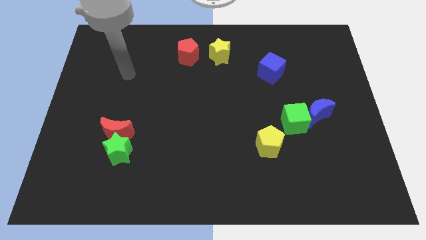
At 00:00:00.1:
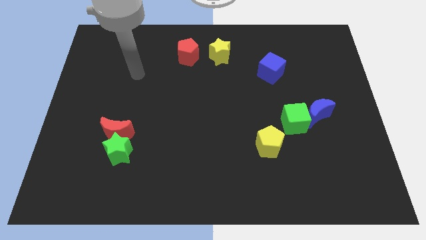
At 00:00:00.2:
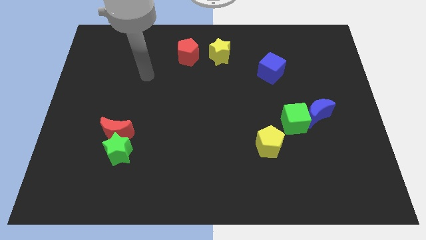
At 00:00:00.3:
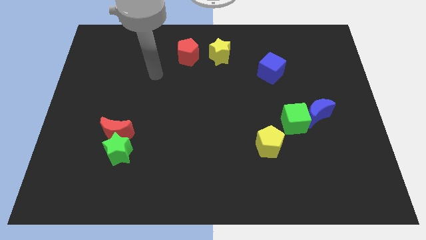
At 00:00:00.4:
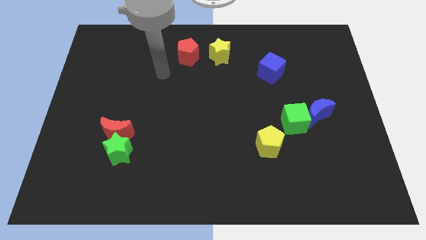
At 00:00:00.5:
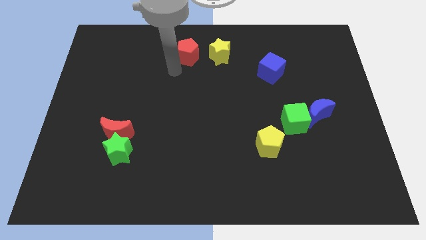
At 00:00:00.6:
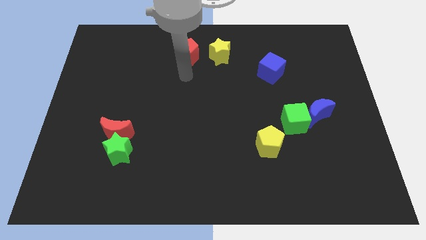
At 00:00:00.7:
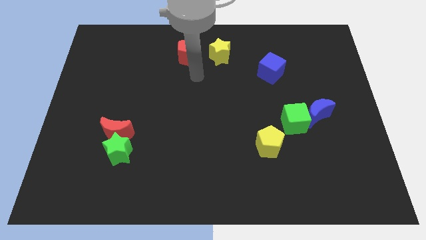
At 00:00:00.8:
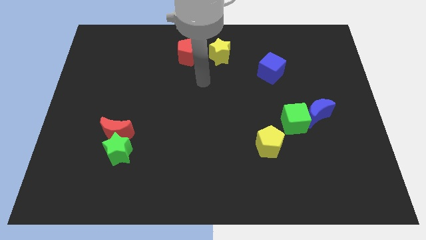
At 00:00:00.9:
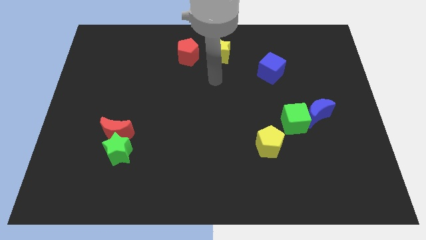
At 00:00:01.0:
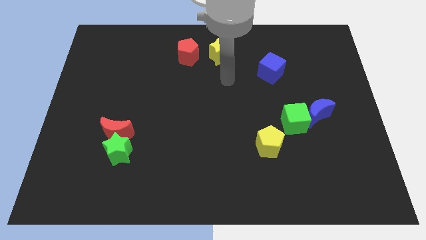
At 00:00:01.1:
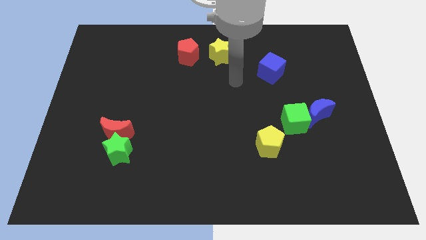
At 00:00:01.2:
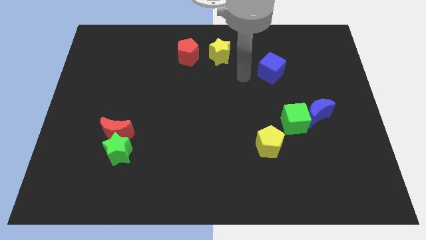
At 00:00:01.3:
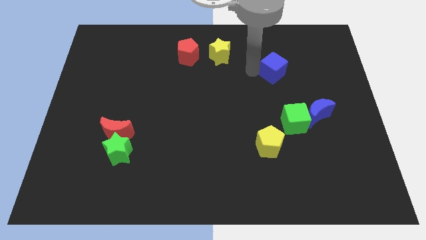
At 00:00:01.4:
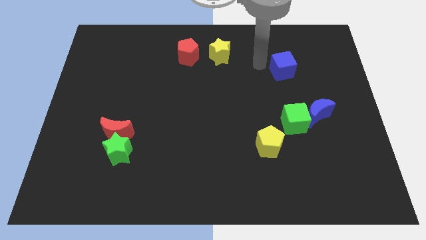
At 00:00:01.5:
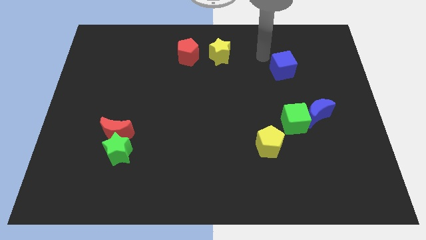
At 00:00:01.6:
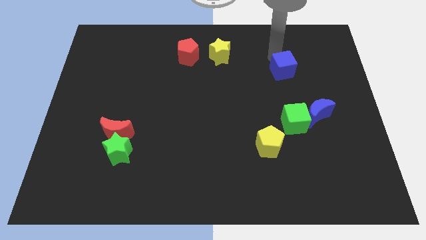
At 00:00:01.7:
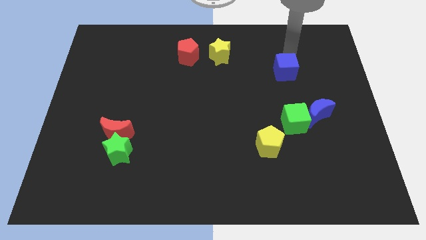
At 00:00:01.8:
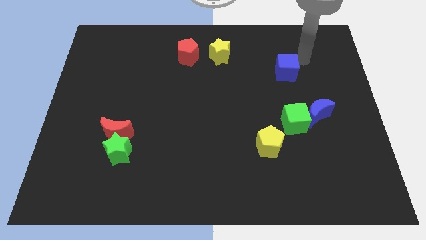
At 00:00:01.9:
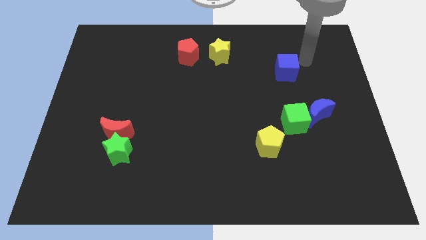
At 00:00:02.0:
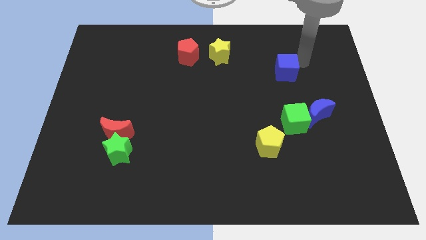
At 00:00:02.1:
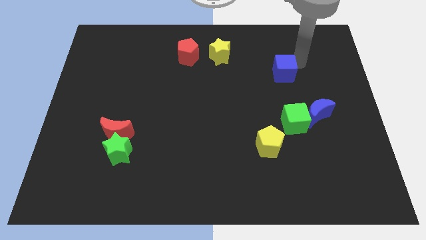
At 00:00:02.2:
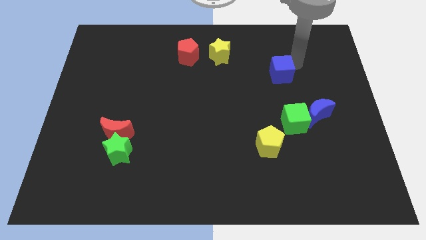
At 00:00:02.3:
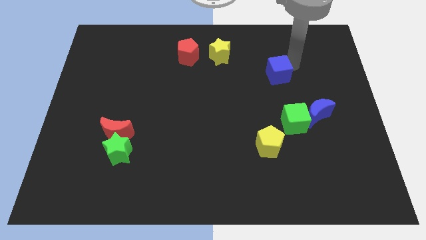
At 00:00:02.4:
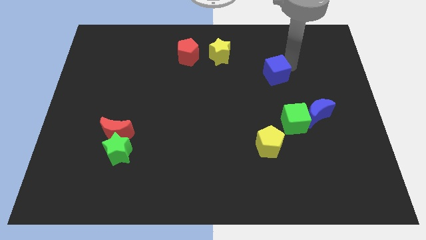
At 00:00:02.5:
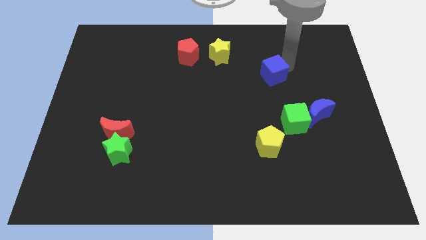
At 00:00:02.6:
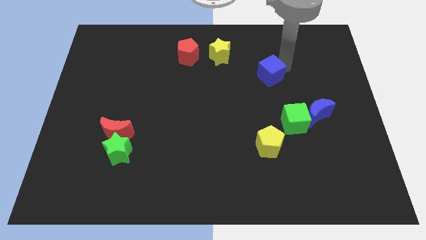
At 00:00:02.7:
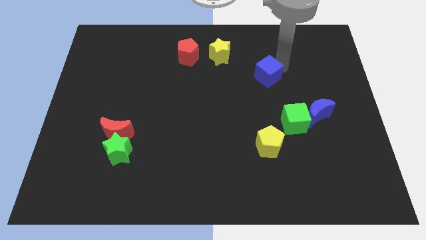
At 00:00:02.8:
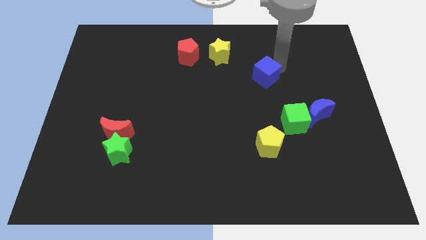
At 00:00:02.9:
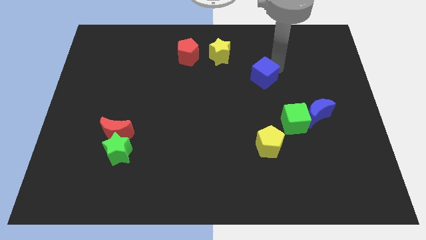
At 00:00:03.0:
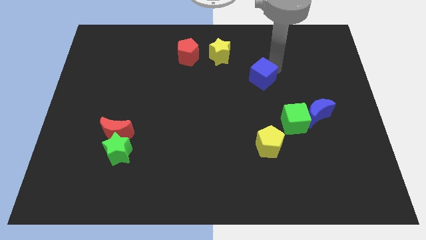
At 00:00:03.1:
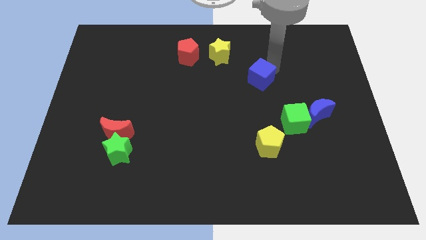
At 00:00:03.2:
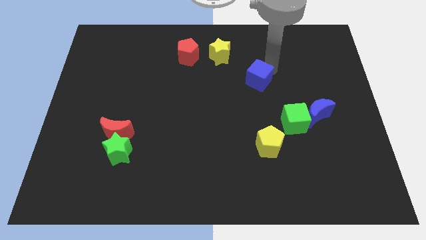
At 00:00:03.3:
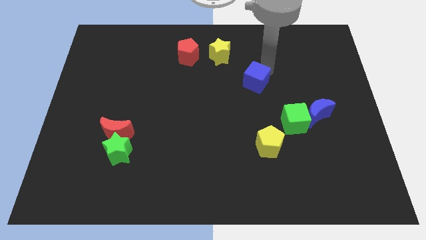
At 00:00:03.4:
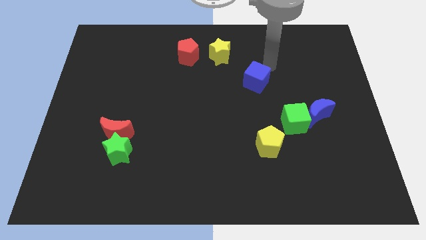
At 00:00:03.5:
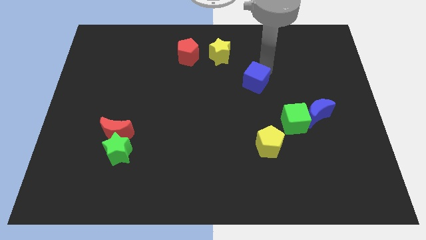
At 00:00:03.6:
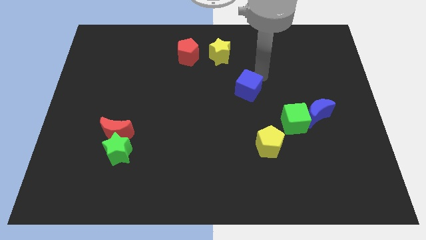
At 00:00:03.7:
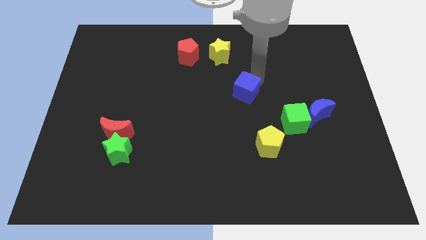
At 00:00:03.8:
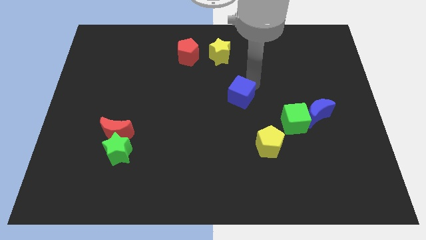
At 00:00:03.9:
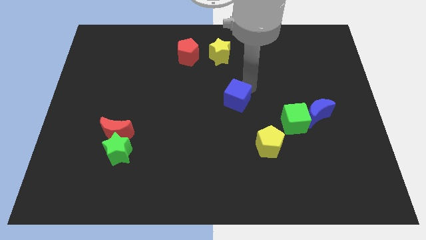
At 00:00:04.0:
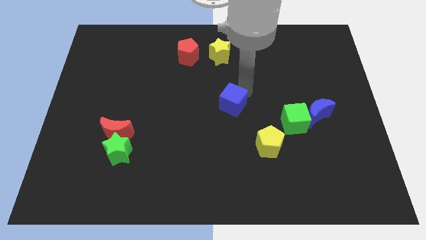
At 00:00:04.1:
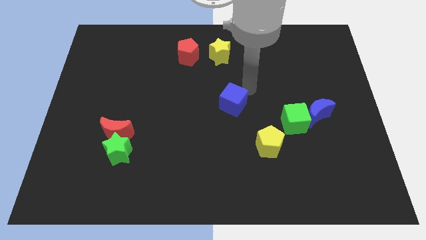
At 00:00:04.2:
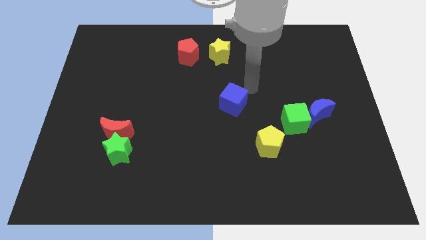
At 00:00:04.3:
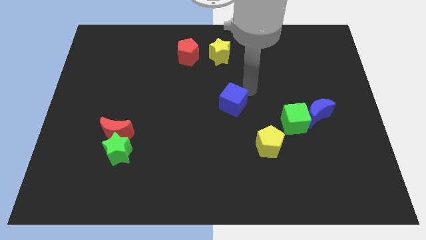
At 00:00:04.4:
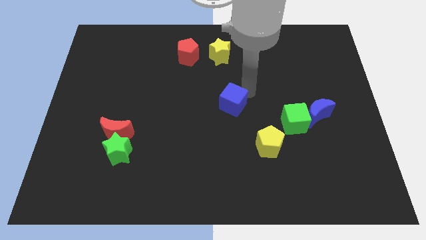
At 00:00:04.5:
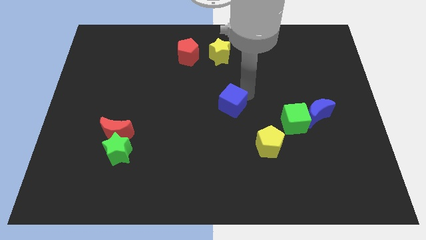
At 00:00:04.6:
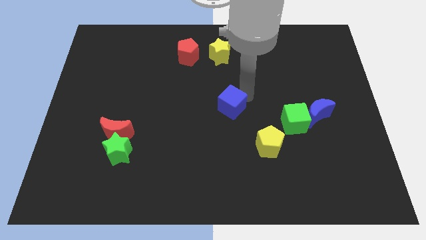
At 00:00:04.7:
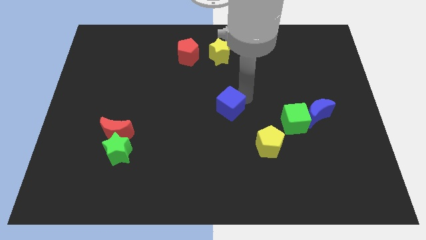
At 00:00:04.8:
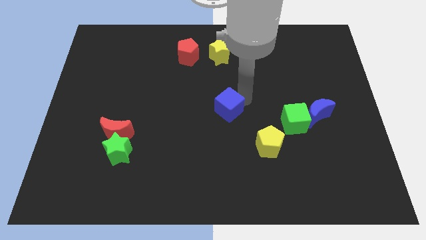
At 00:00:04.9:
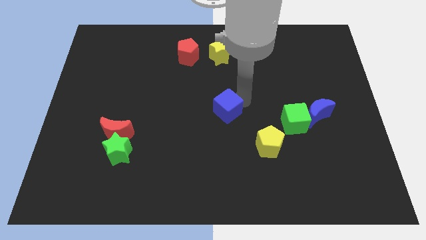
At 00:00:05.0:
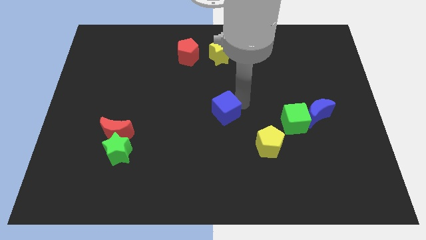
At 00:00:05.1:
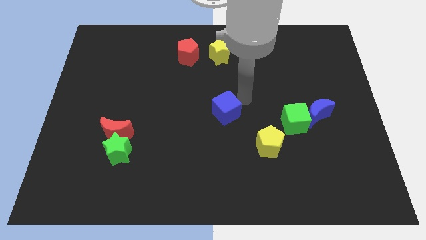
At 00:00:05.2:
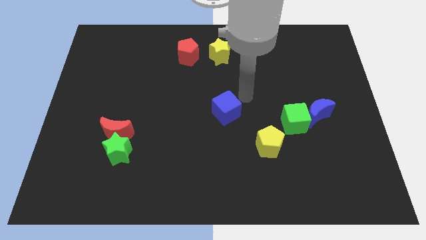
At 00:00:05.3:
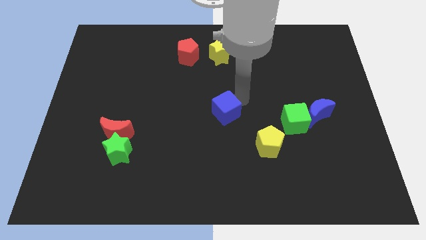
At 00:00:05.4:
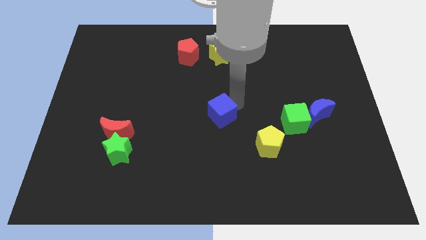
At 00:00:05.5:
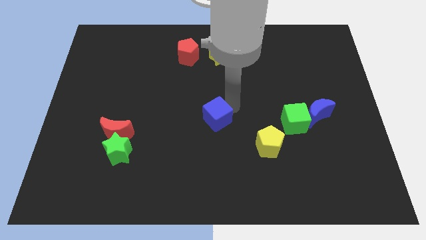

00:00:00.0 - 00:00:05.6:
push the blue cube down and to the left

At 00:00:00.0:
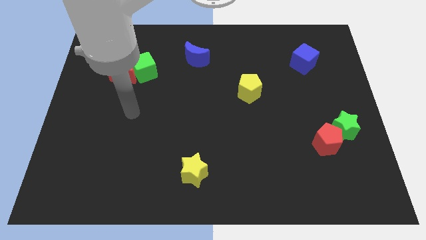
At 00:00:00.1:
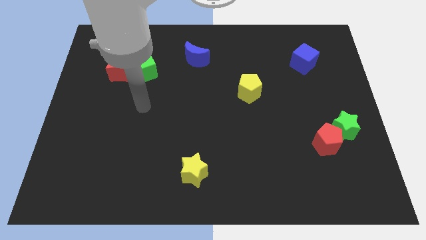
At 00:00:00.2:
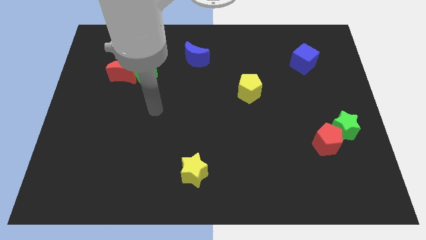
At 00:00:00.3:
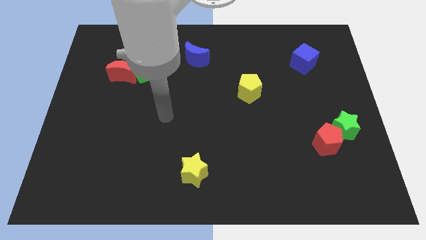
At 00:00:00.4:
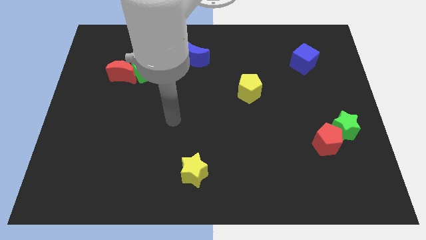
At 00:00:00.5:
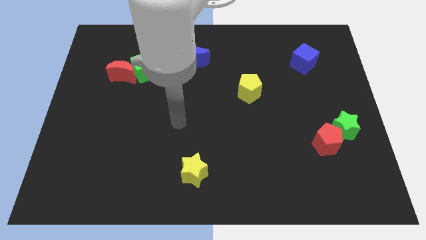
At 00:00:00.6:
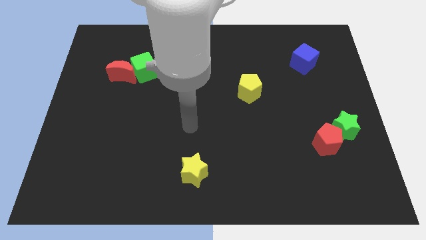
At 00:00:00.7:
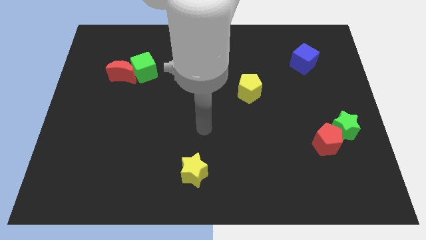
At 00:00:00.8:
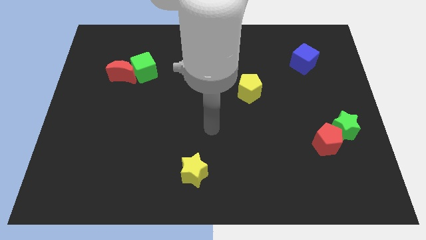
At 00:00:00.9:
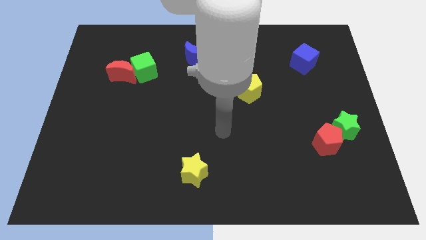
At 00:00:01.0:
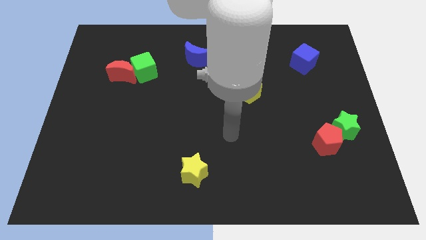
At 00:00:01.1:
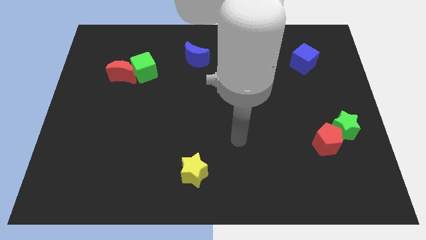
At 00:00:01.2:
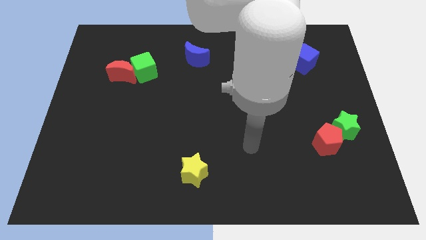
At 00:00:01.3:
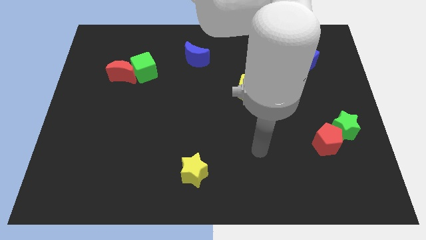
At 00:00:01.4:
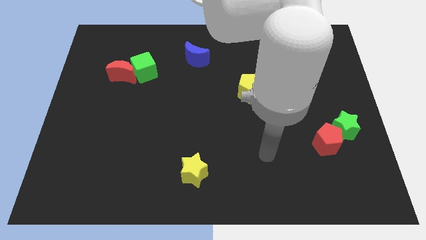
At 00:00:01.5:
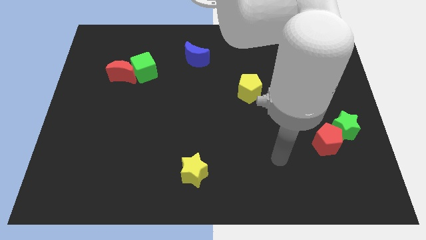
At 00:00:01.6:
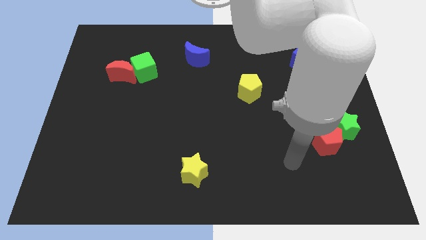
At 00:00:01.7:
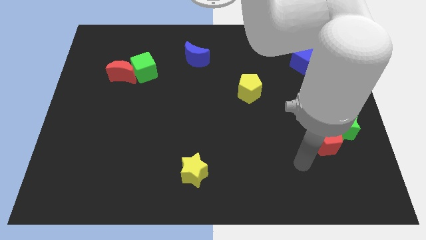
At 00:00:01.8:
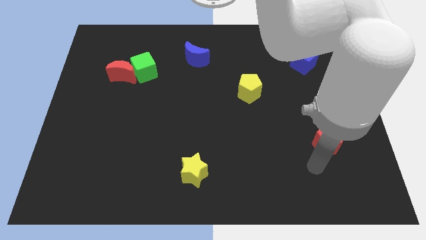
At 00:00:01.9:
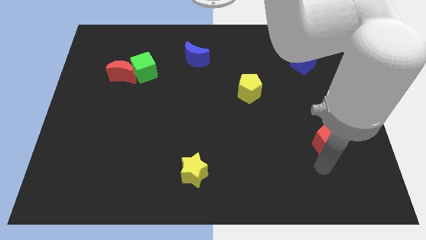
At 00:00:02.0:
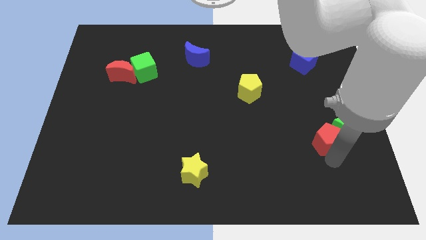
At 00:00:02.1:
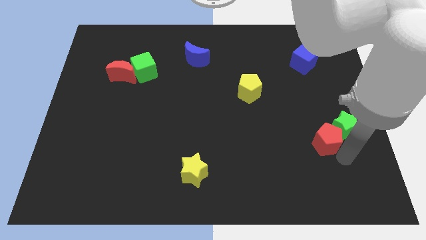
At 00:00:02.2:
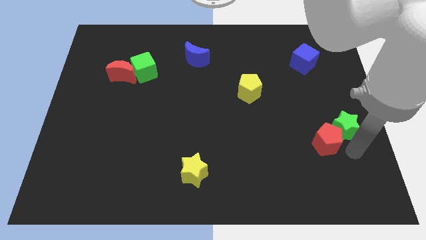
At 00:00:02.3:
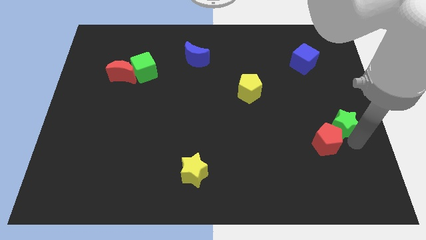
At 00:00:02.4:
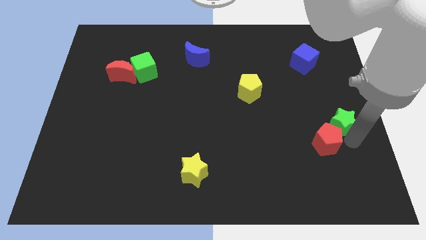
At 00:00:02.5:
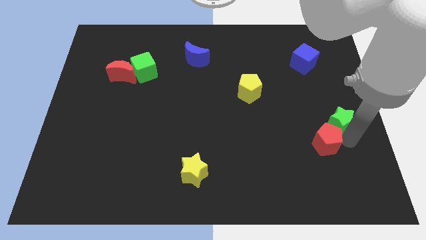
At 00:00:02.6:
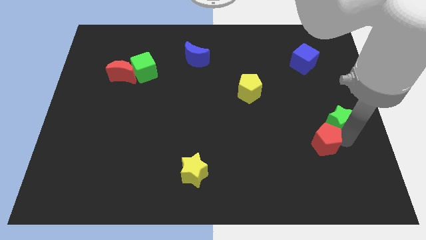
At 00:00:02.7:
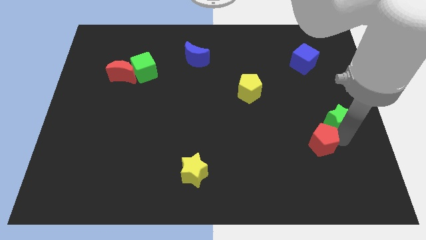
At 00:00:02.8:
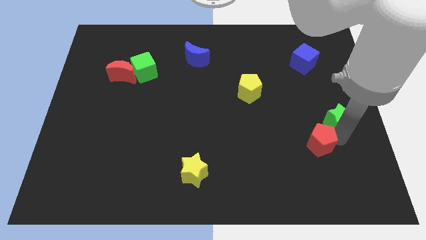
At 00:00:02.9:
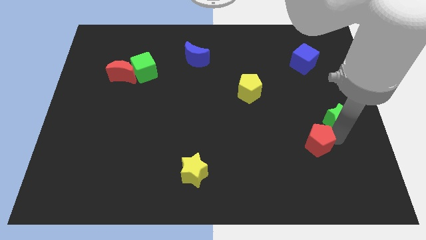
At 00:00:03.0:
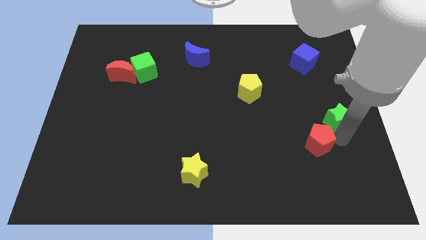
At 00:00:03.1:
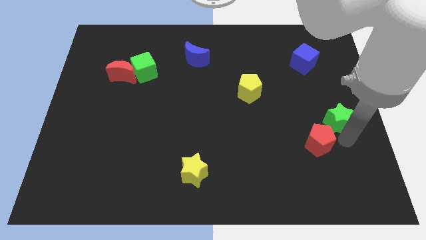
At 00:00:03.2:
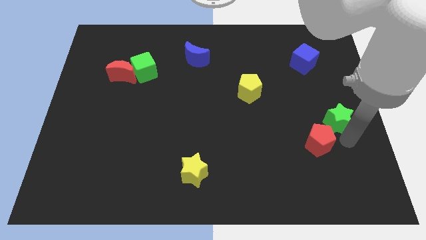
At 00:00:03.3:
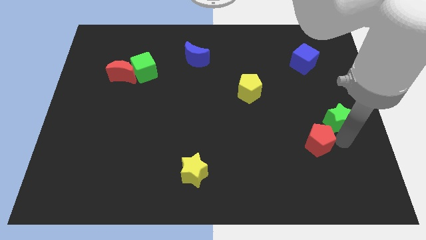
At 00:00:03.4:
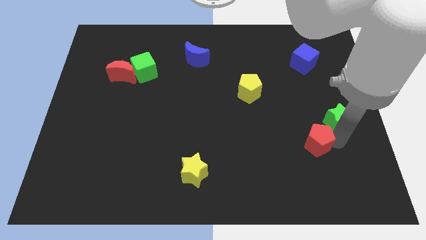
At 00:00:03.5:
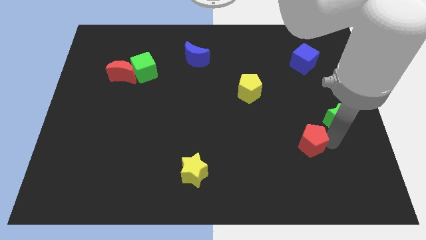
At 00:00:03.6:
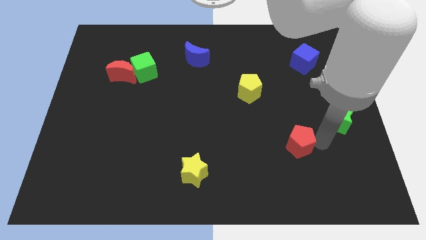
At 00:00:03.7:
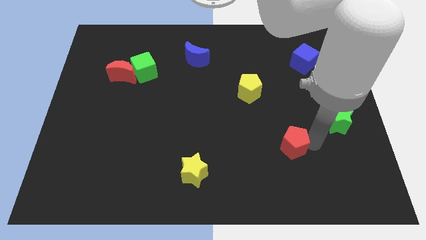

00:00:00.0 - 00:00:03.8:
move the red pentagon left slightly
